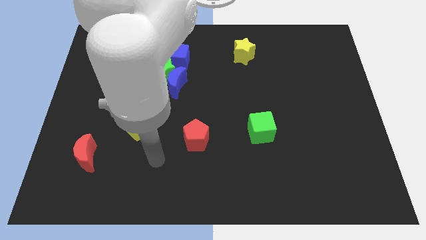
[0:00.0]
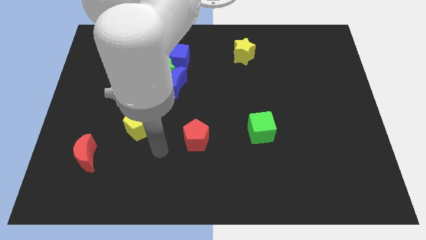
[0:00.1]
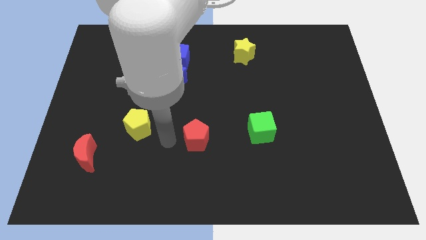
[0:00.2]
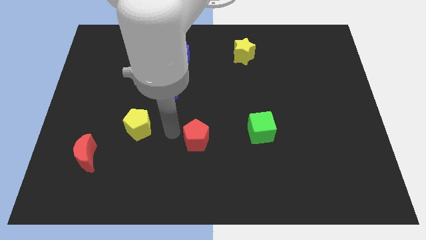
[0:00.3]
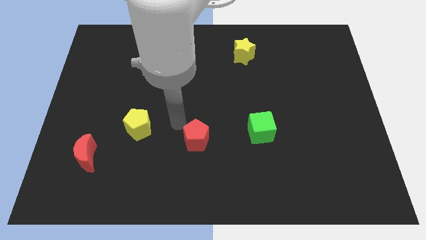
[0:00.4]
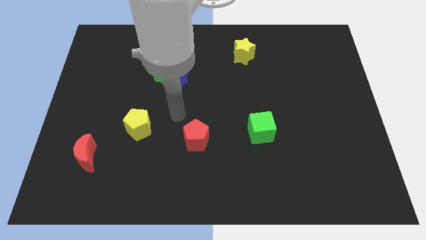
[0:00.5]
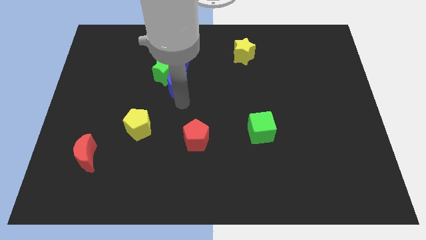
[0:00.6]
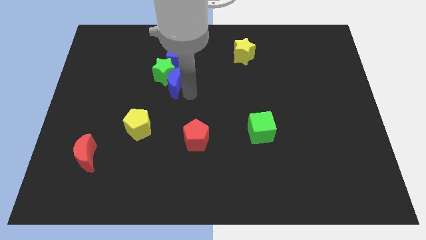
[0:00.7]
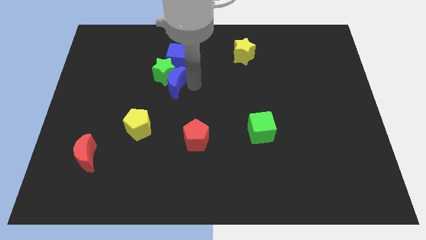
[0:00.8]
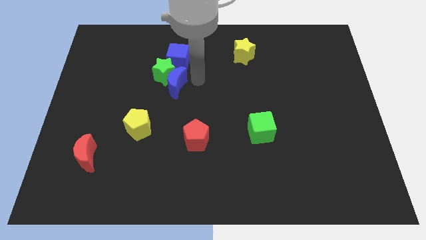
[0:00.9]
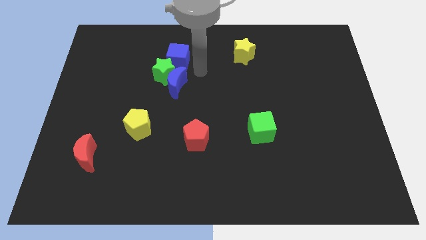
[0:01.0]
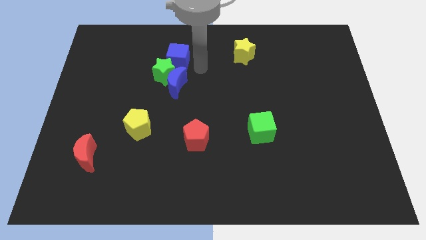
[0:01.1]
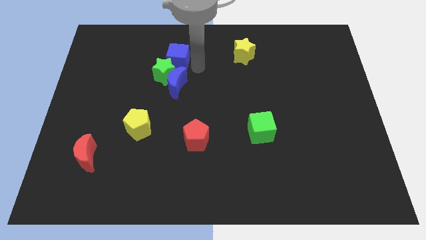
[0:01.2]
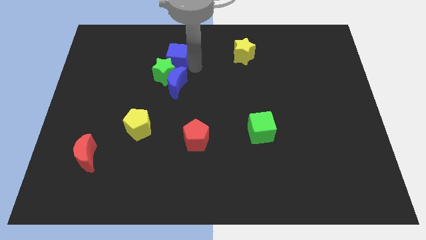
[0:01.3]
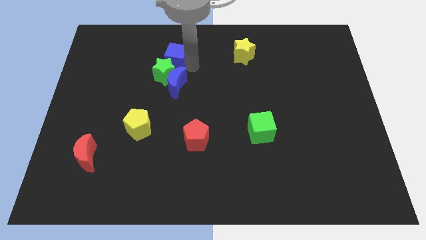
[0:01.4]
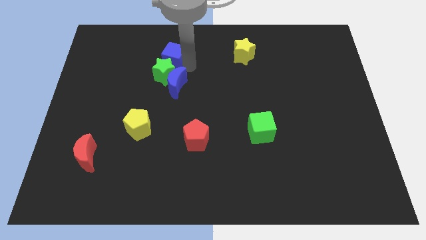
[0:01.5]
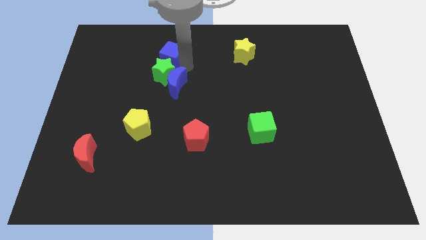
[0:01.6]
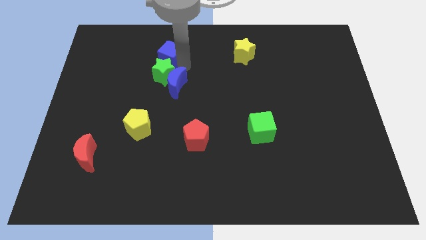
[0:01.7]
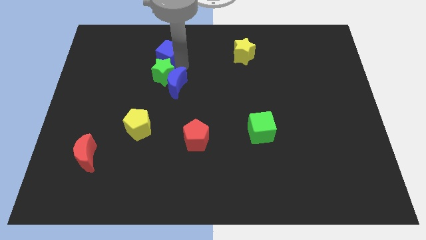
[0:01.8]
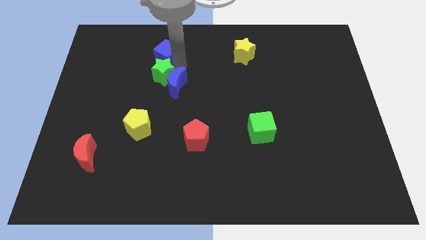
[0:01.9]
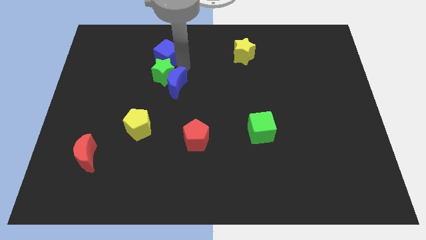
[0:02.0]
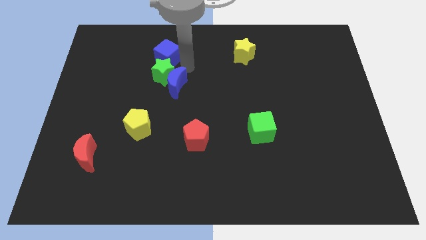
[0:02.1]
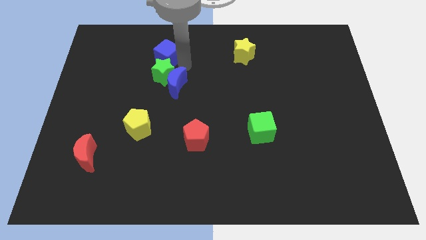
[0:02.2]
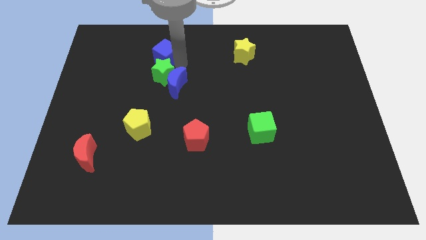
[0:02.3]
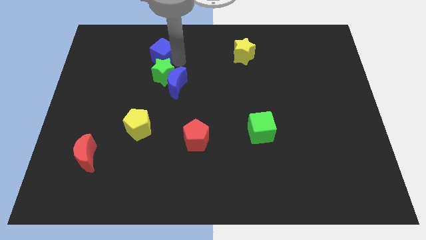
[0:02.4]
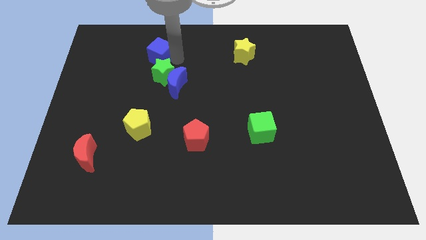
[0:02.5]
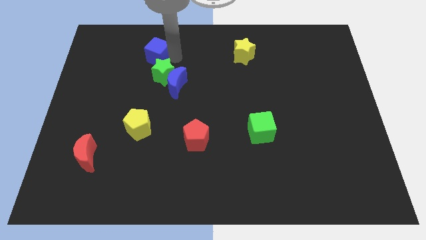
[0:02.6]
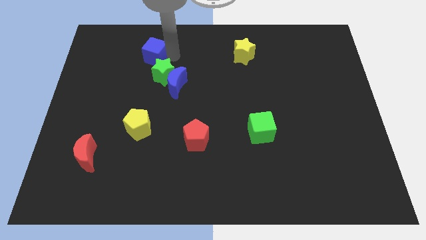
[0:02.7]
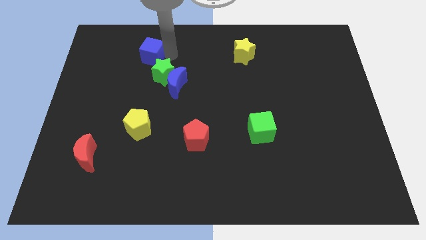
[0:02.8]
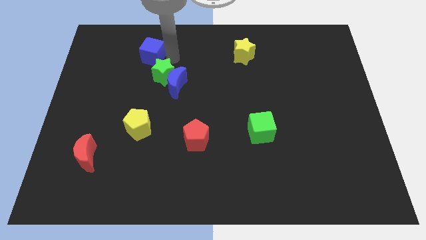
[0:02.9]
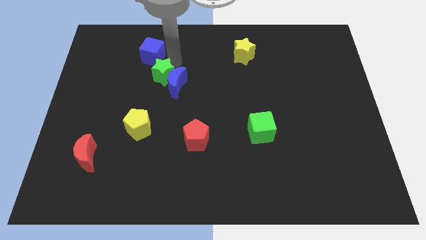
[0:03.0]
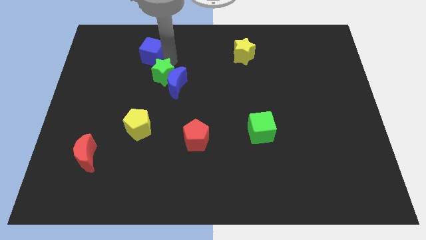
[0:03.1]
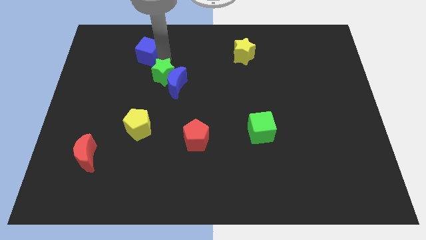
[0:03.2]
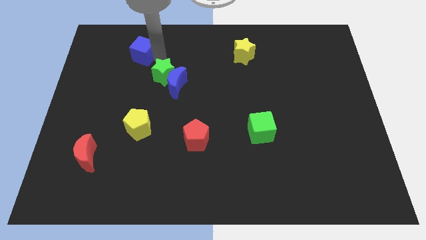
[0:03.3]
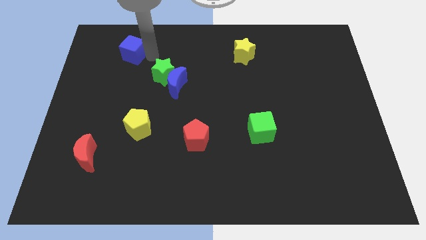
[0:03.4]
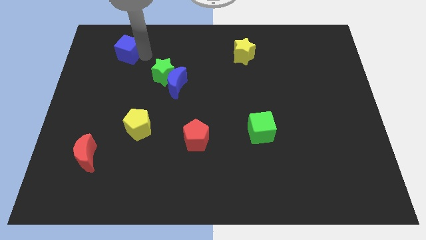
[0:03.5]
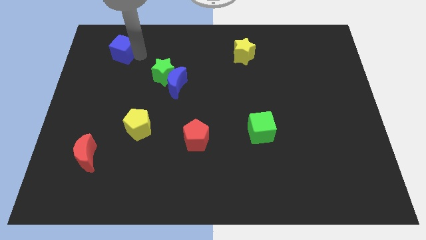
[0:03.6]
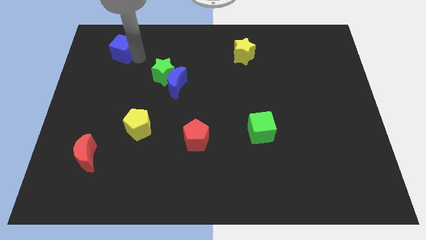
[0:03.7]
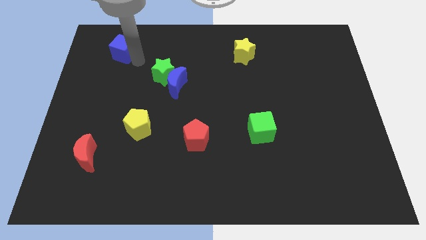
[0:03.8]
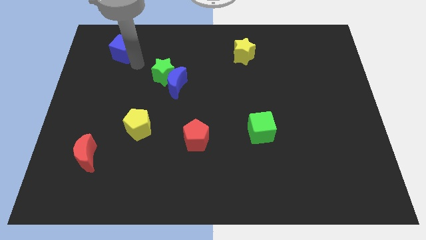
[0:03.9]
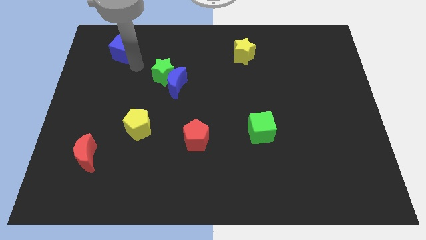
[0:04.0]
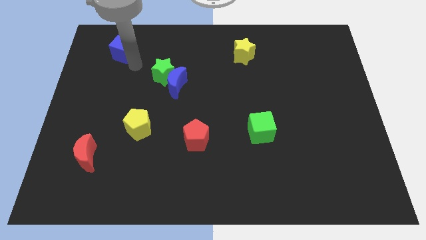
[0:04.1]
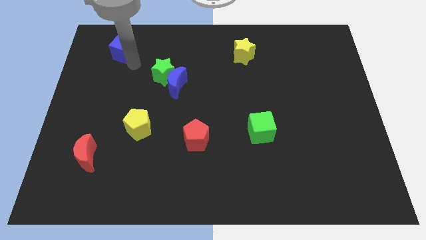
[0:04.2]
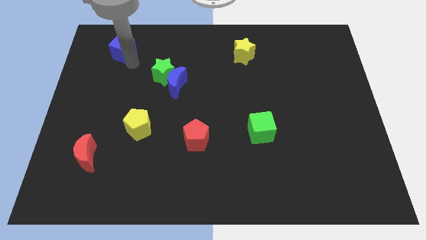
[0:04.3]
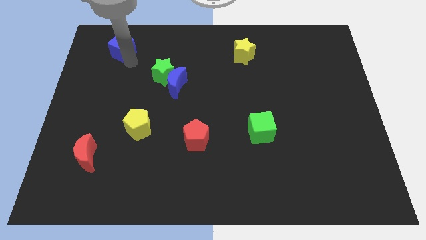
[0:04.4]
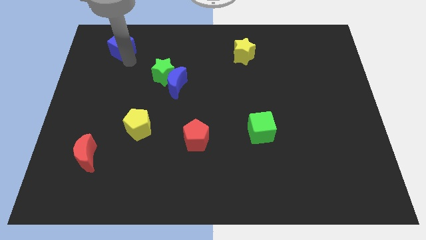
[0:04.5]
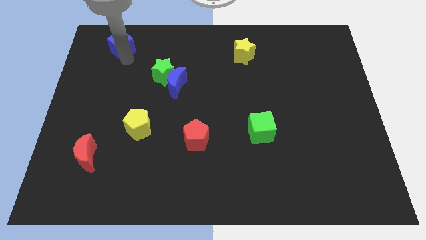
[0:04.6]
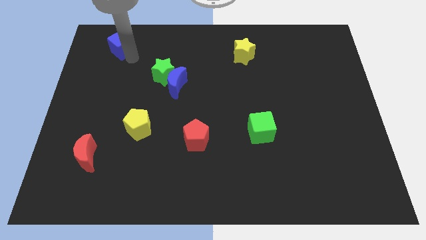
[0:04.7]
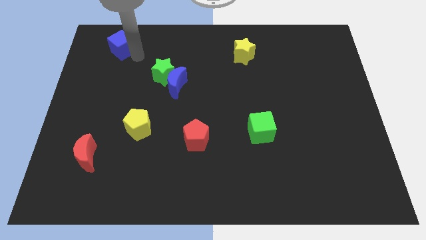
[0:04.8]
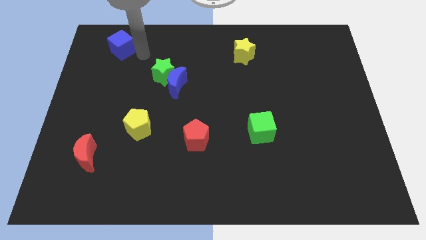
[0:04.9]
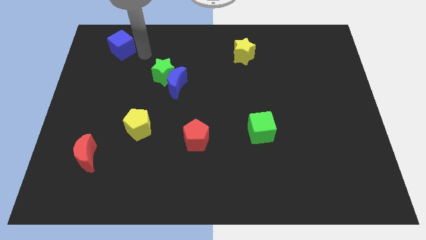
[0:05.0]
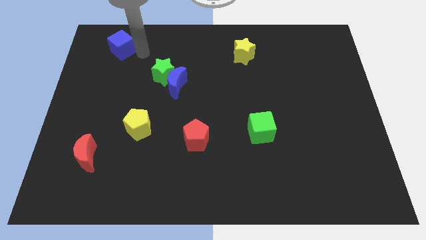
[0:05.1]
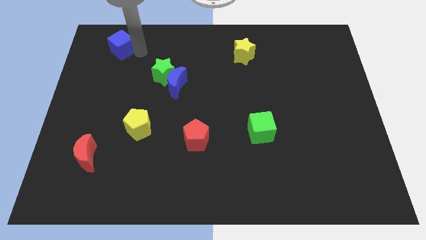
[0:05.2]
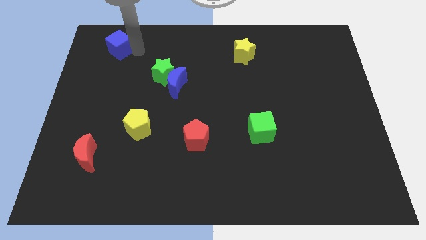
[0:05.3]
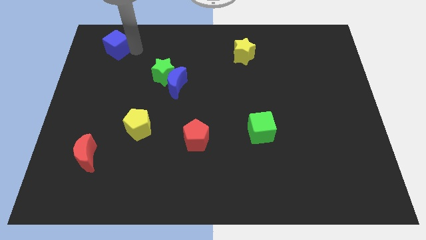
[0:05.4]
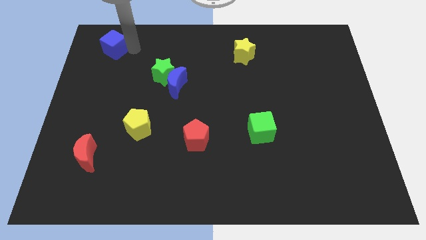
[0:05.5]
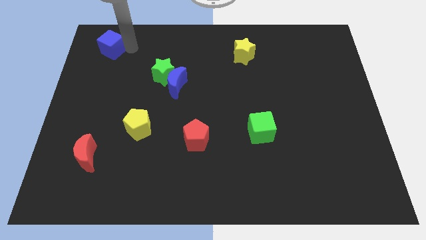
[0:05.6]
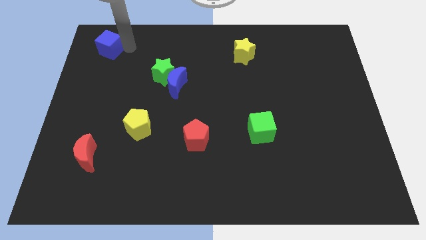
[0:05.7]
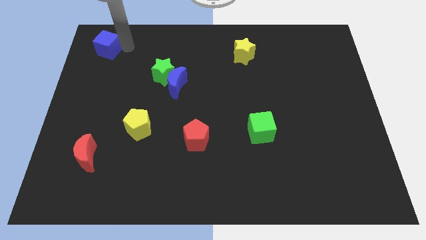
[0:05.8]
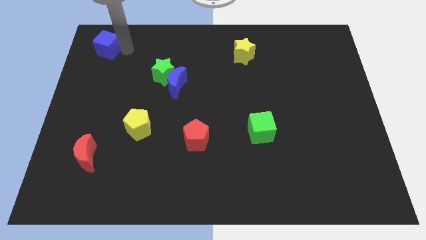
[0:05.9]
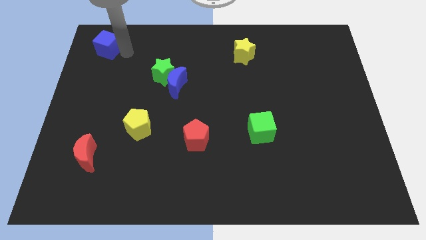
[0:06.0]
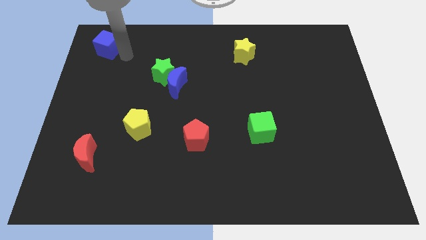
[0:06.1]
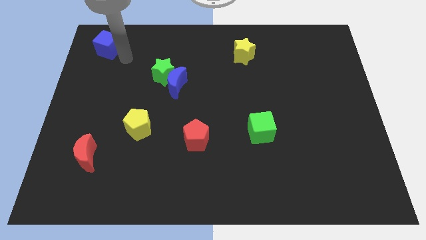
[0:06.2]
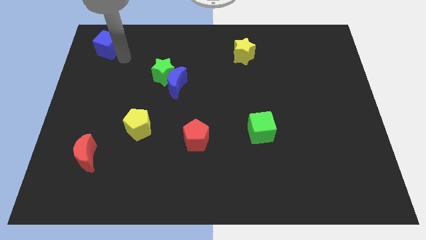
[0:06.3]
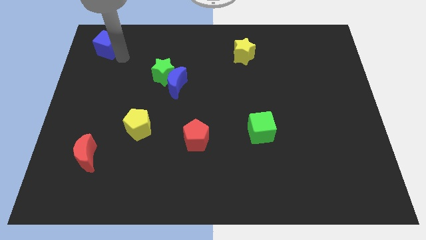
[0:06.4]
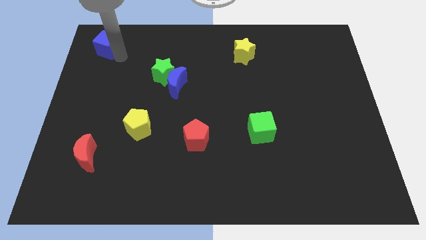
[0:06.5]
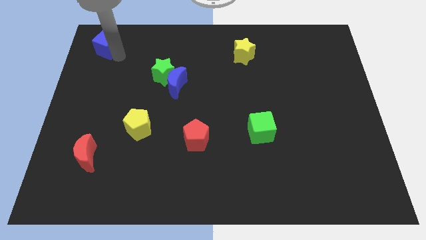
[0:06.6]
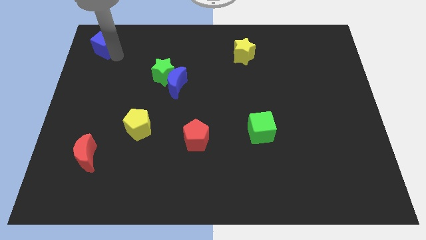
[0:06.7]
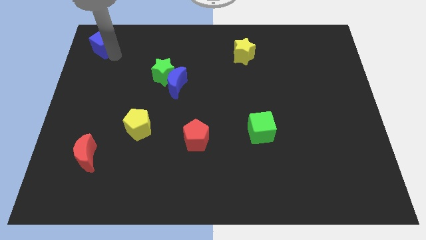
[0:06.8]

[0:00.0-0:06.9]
move the blue cube to the upper left corner

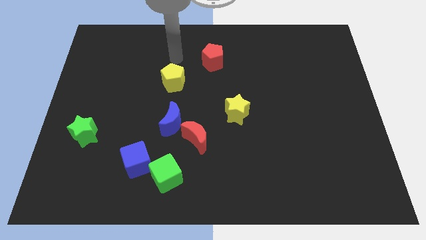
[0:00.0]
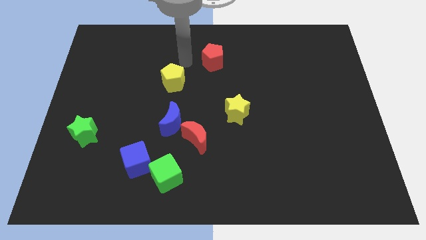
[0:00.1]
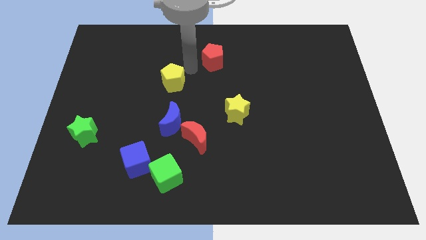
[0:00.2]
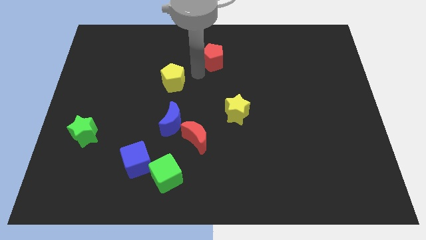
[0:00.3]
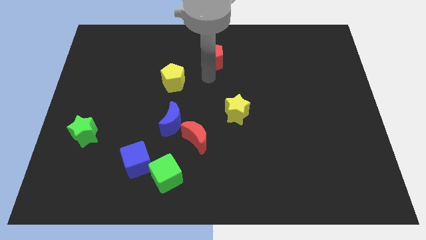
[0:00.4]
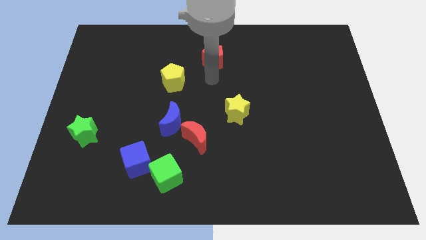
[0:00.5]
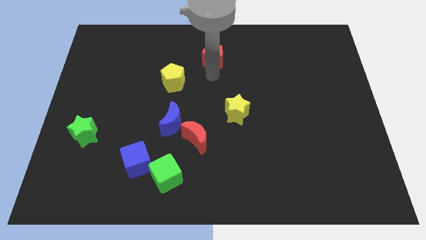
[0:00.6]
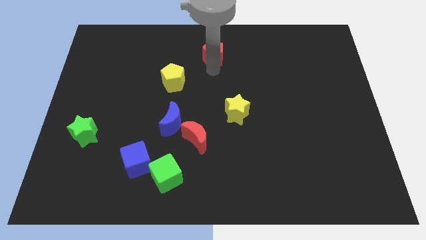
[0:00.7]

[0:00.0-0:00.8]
slide the red pentagon to the top
